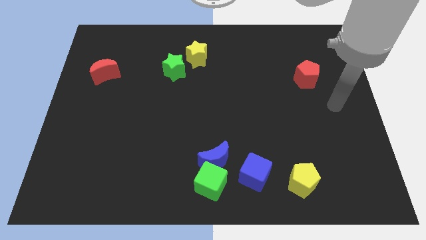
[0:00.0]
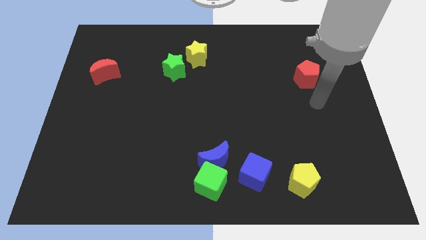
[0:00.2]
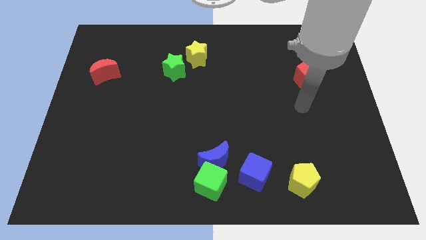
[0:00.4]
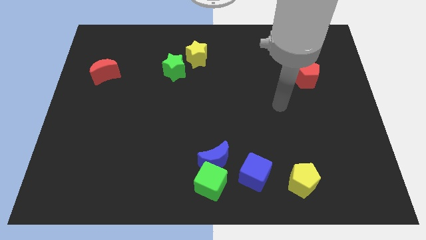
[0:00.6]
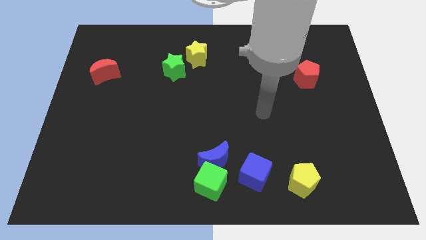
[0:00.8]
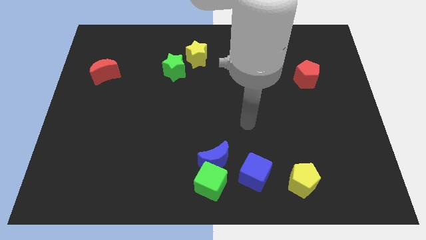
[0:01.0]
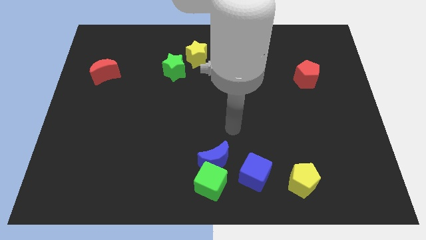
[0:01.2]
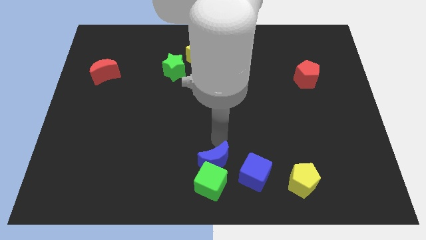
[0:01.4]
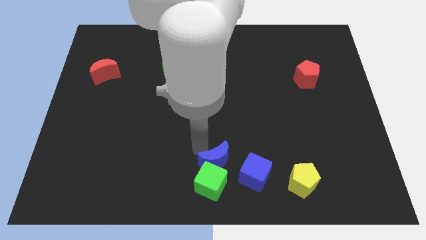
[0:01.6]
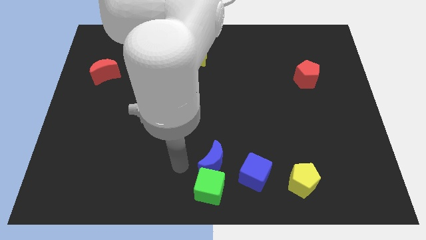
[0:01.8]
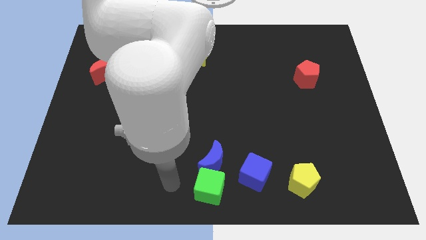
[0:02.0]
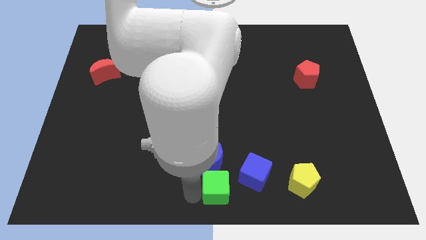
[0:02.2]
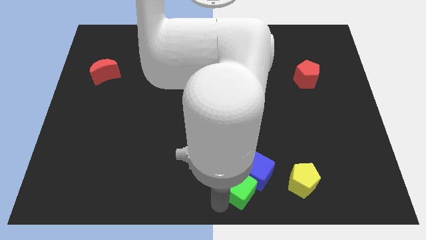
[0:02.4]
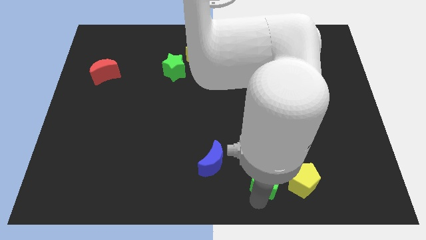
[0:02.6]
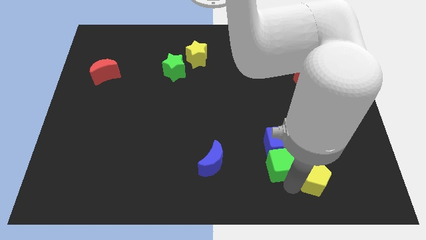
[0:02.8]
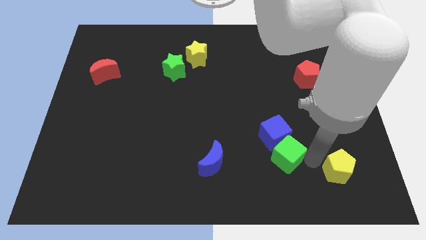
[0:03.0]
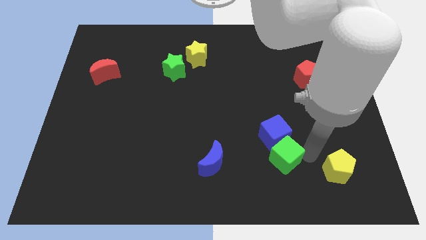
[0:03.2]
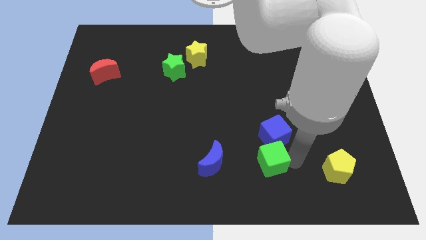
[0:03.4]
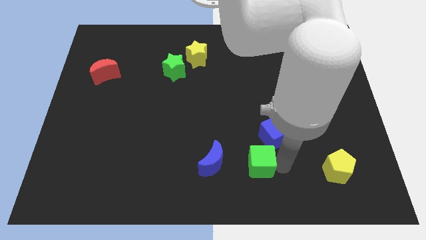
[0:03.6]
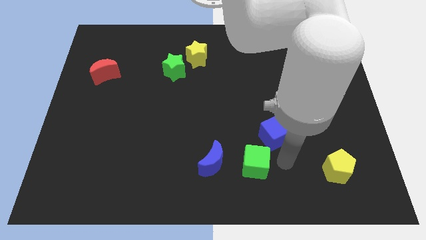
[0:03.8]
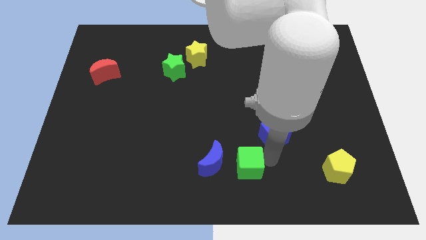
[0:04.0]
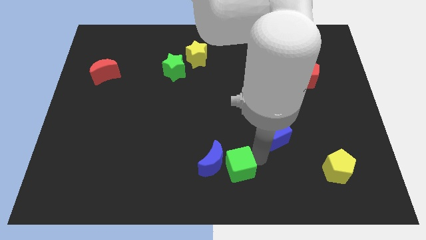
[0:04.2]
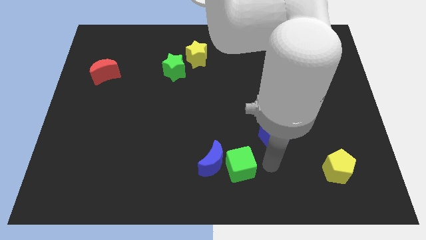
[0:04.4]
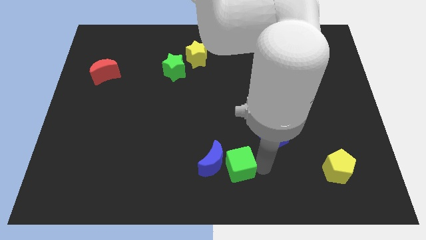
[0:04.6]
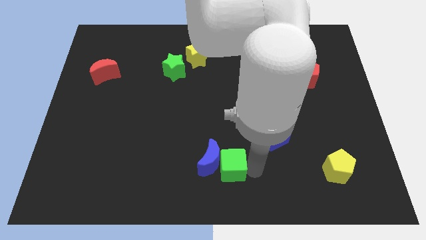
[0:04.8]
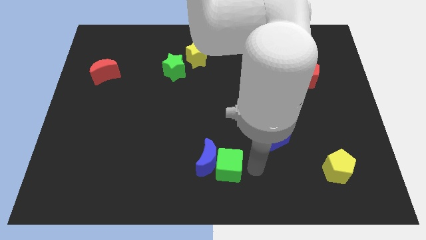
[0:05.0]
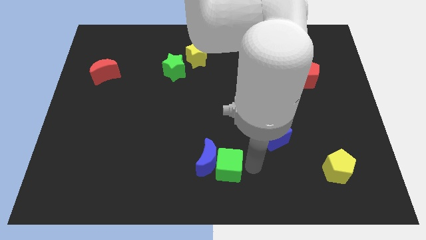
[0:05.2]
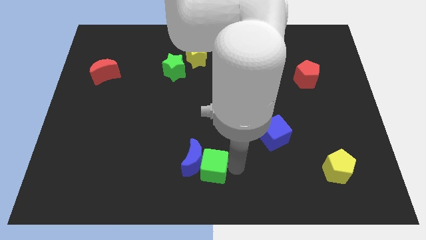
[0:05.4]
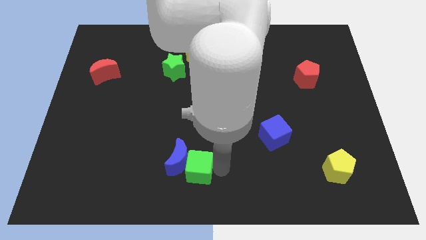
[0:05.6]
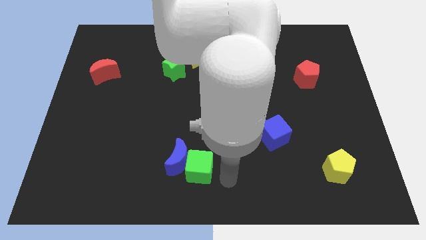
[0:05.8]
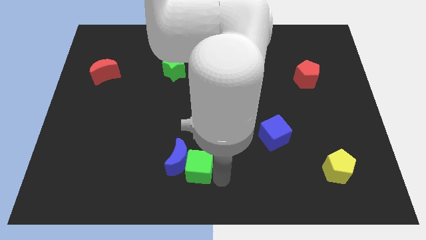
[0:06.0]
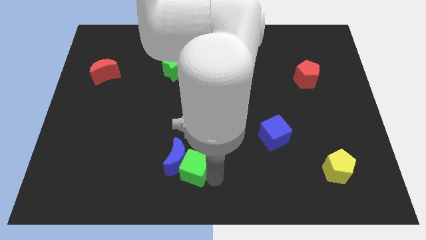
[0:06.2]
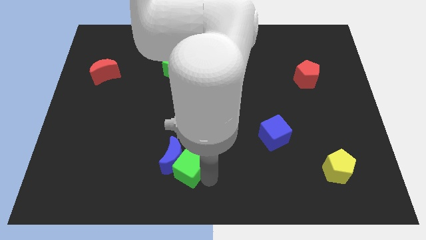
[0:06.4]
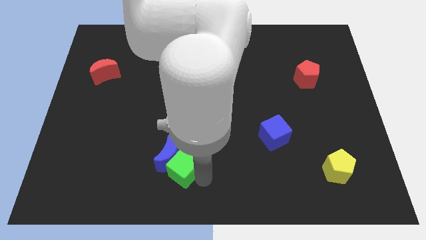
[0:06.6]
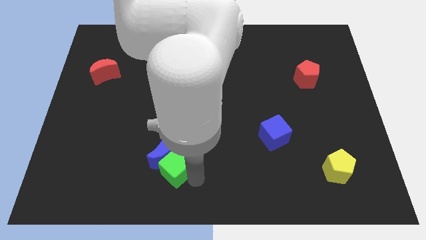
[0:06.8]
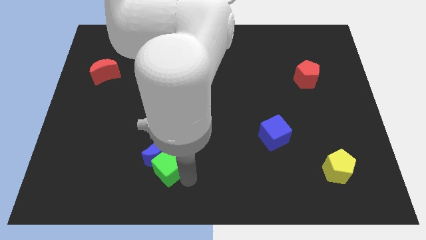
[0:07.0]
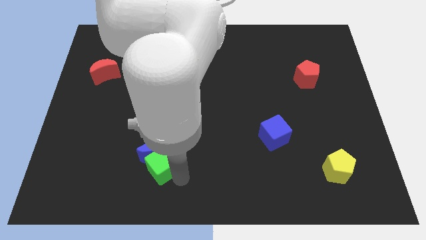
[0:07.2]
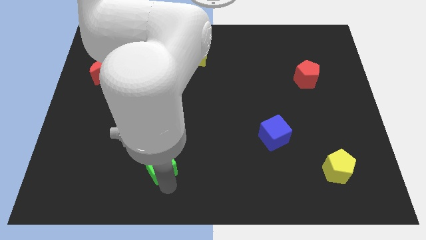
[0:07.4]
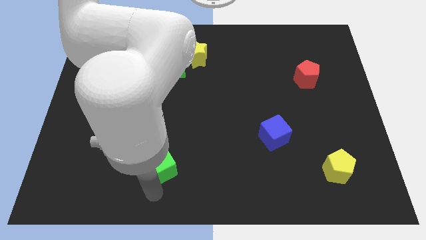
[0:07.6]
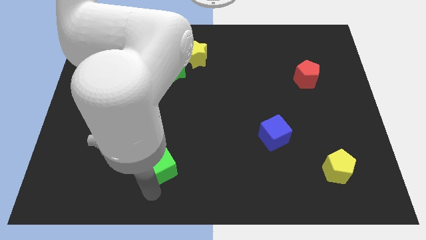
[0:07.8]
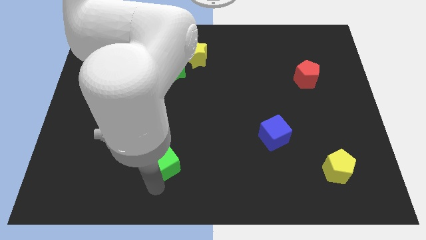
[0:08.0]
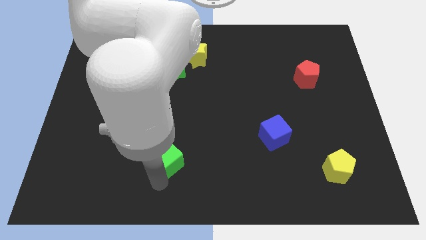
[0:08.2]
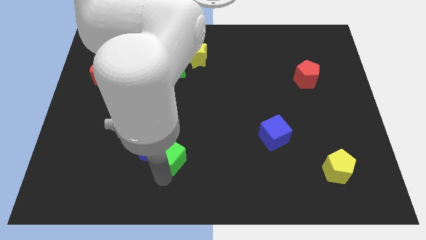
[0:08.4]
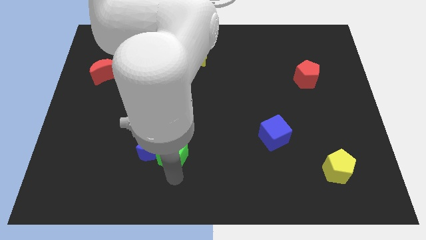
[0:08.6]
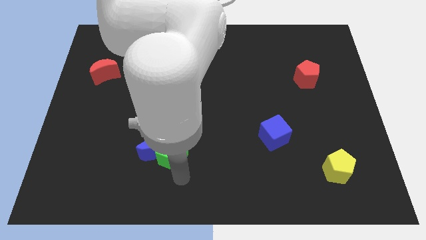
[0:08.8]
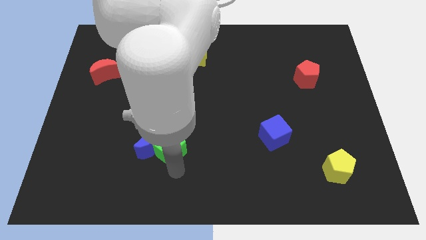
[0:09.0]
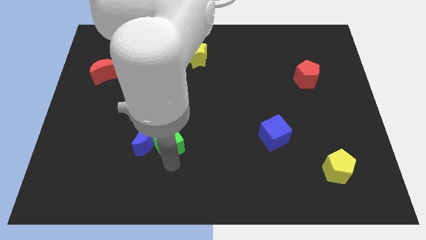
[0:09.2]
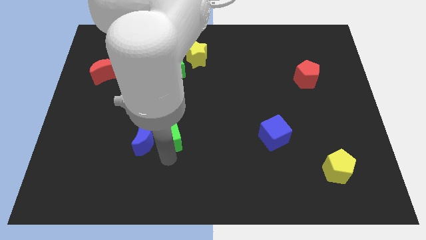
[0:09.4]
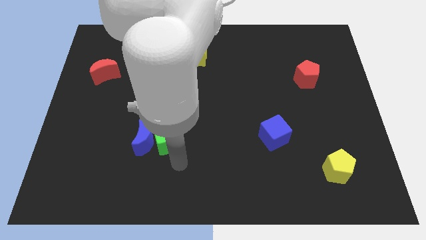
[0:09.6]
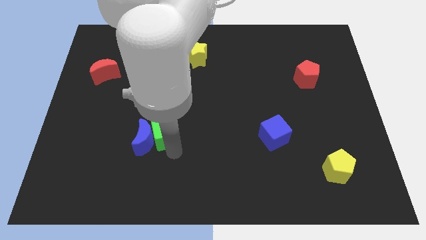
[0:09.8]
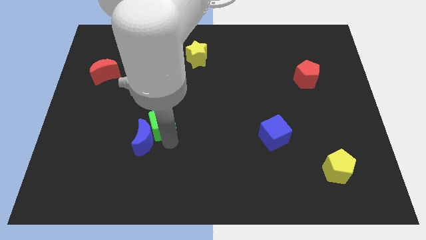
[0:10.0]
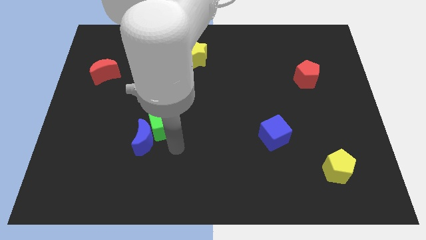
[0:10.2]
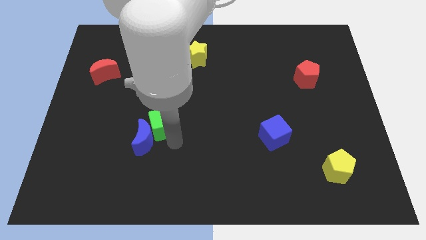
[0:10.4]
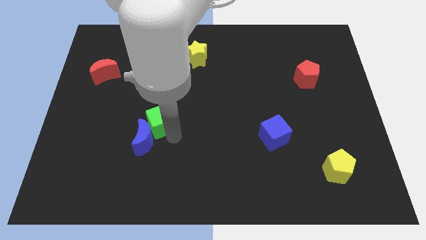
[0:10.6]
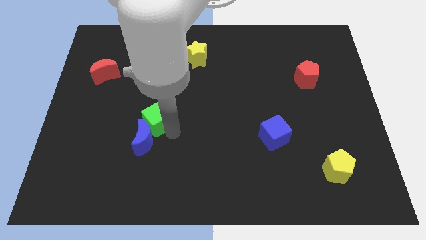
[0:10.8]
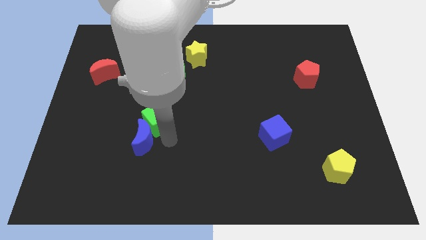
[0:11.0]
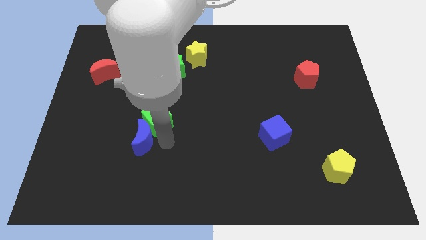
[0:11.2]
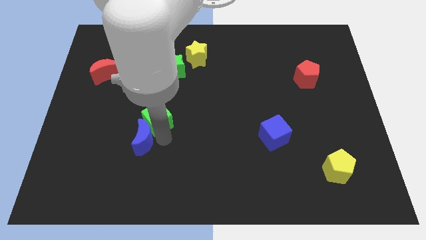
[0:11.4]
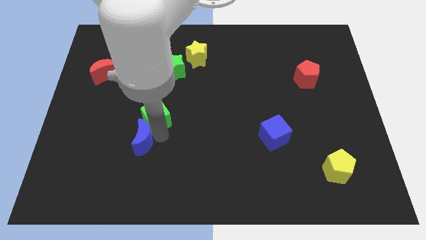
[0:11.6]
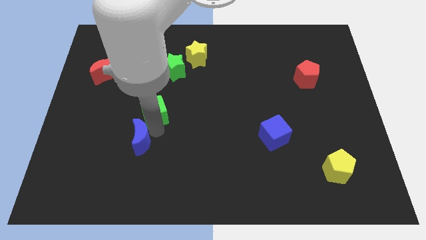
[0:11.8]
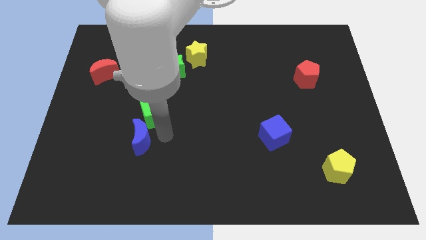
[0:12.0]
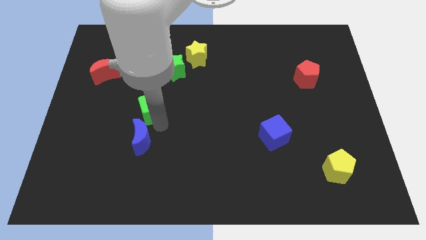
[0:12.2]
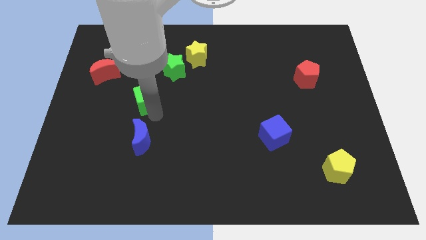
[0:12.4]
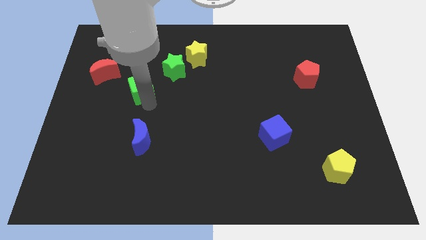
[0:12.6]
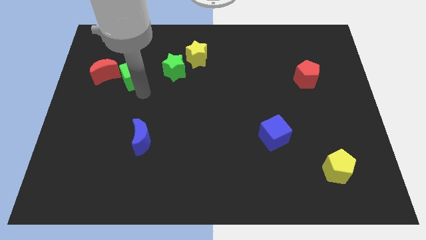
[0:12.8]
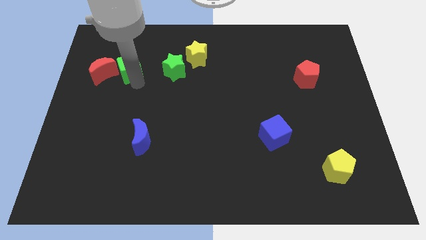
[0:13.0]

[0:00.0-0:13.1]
move the green cube to the top right of the red moon

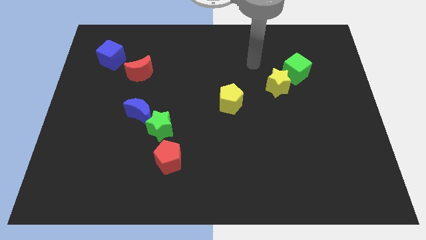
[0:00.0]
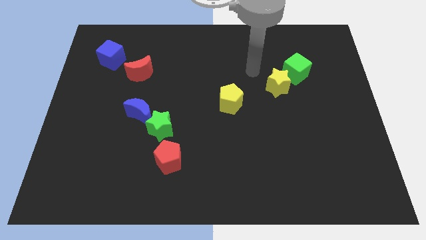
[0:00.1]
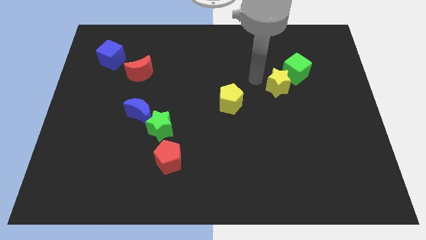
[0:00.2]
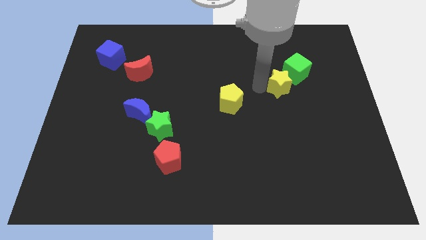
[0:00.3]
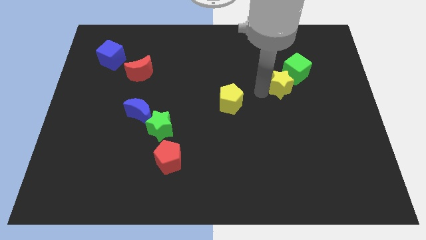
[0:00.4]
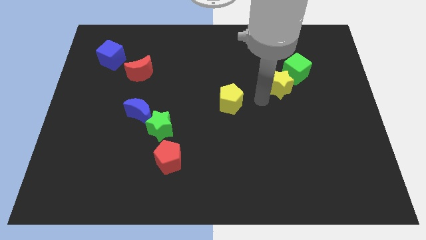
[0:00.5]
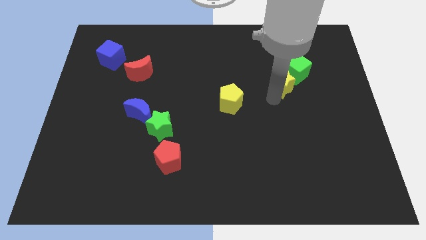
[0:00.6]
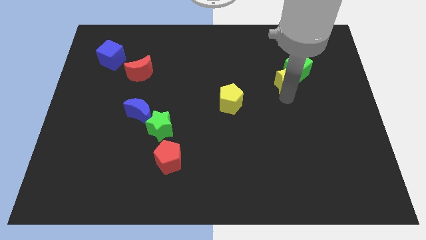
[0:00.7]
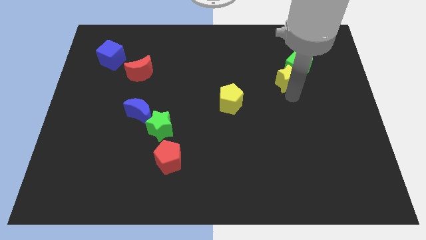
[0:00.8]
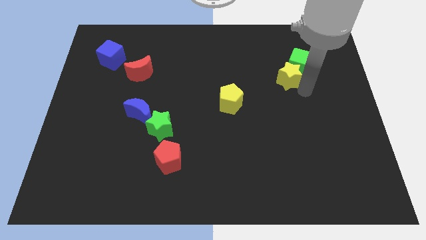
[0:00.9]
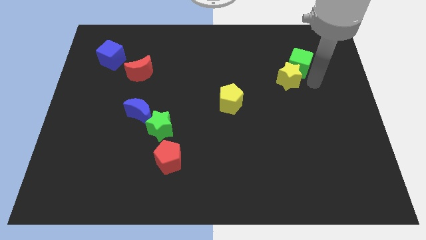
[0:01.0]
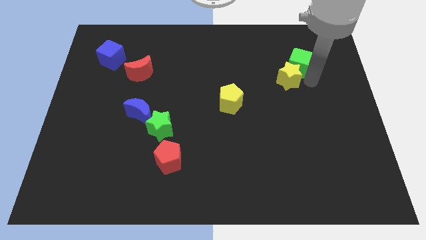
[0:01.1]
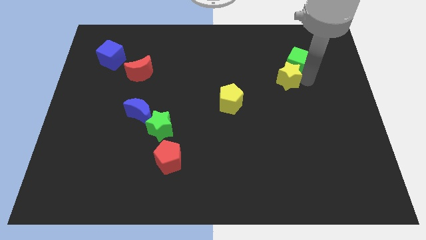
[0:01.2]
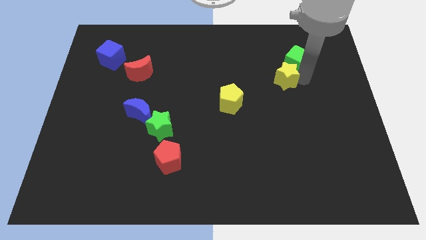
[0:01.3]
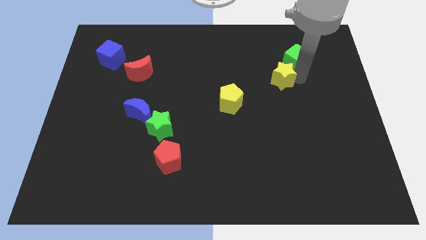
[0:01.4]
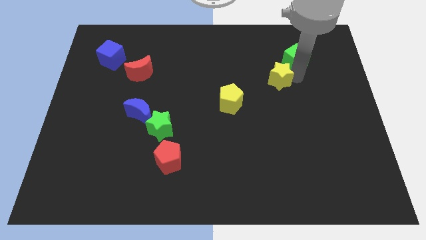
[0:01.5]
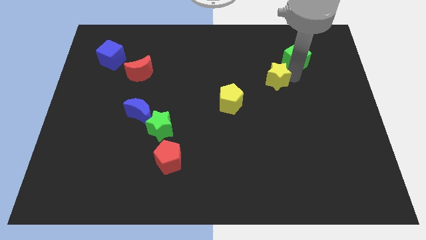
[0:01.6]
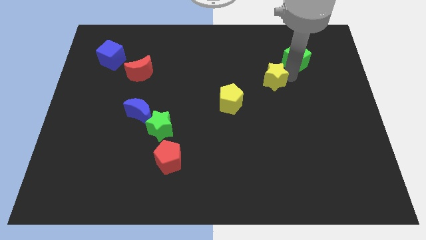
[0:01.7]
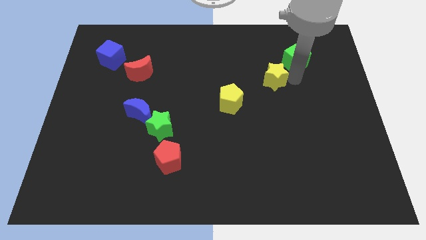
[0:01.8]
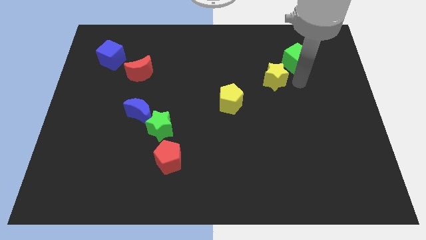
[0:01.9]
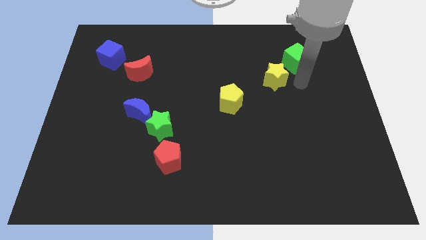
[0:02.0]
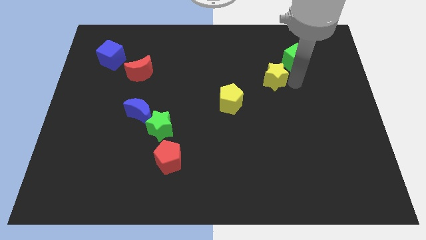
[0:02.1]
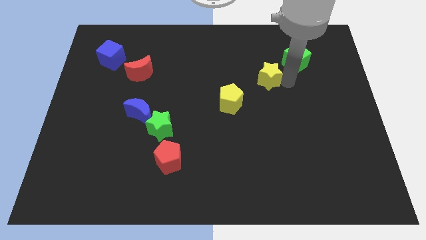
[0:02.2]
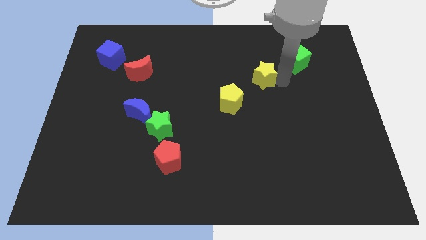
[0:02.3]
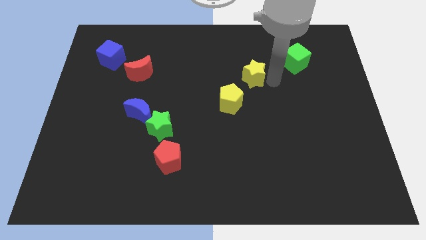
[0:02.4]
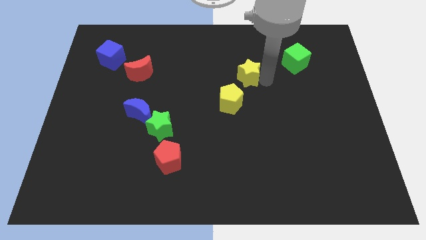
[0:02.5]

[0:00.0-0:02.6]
push the yellow star to the top side of the yellow pentagon
